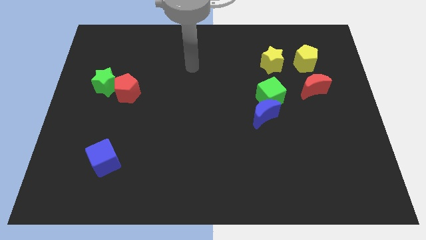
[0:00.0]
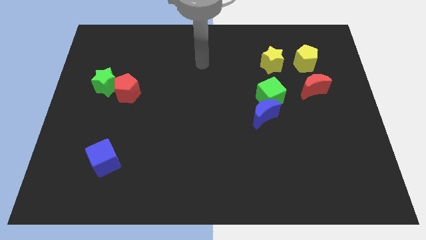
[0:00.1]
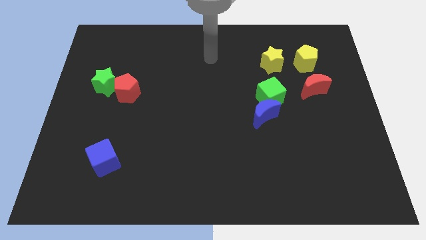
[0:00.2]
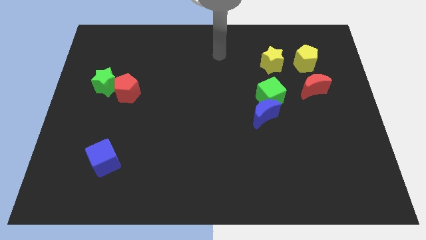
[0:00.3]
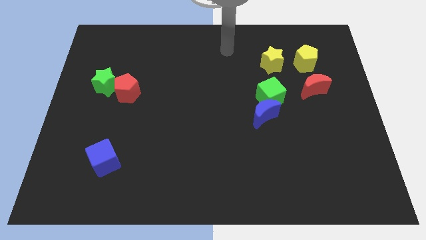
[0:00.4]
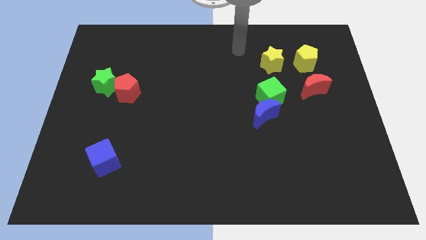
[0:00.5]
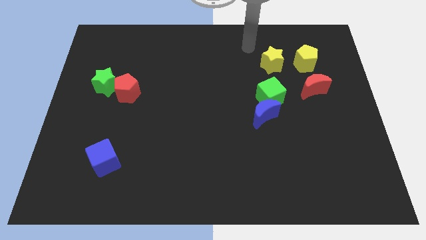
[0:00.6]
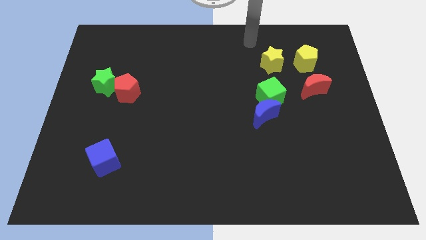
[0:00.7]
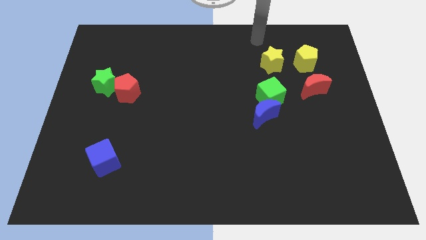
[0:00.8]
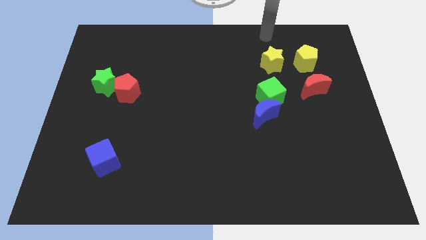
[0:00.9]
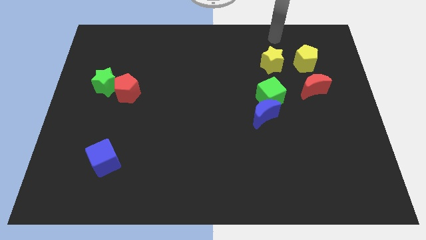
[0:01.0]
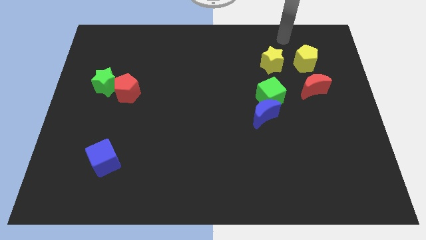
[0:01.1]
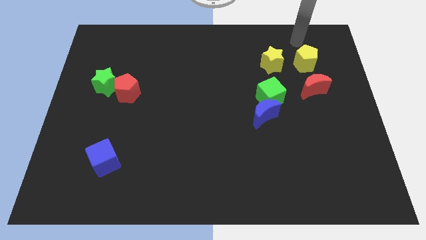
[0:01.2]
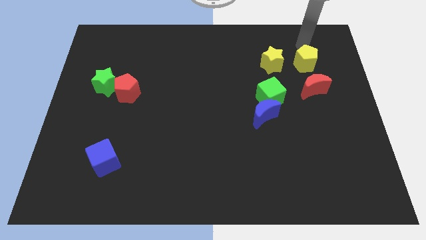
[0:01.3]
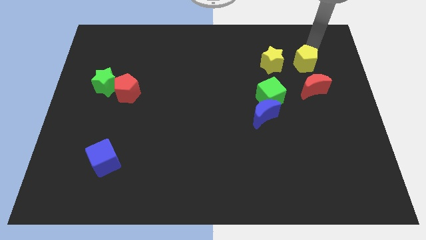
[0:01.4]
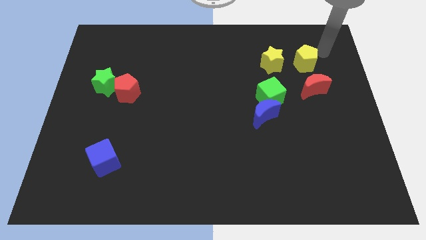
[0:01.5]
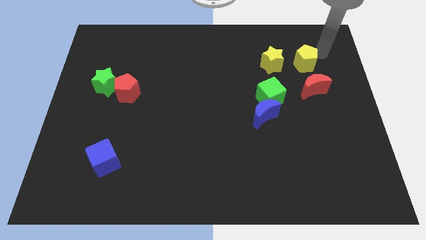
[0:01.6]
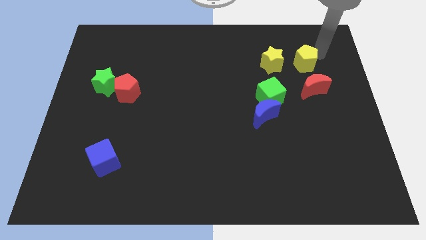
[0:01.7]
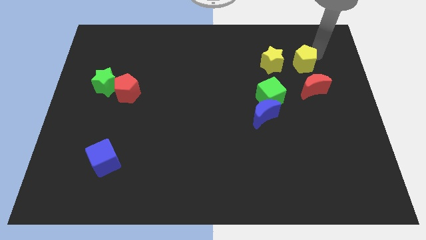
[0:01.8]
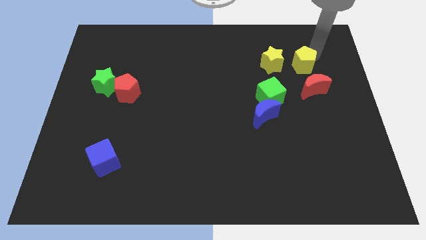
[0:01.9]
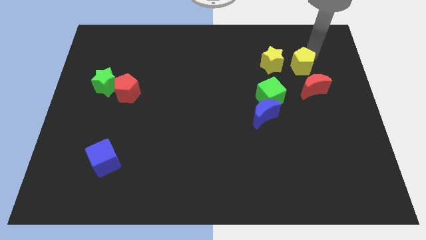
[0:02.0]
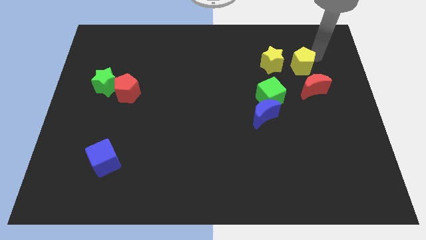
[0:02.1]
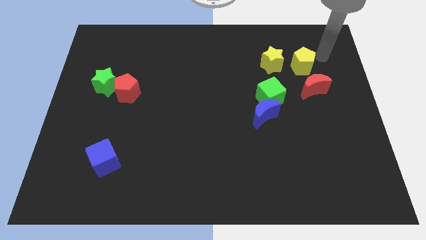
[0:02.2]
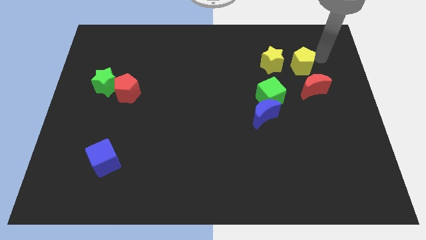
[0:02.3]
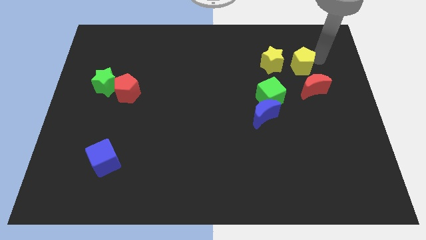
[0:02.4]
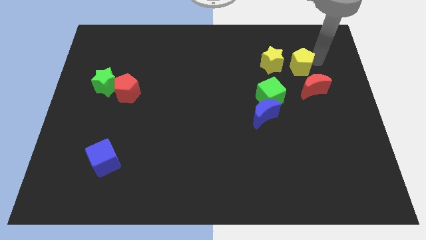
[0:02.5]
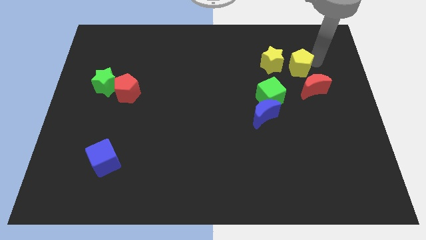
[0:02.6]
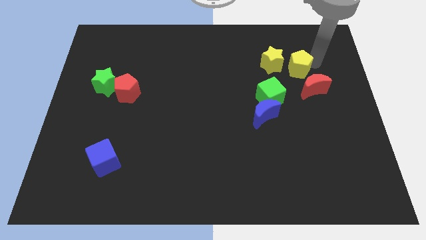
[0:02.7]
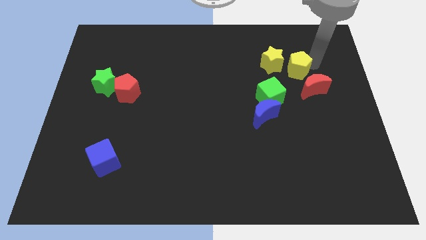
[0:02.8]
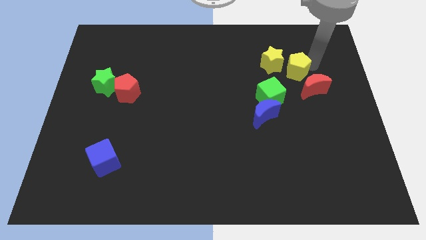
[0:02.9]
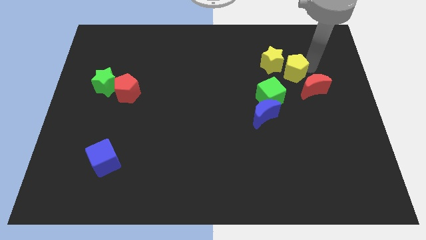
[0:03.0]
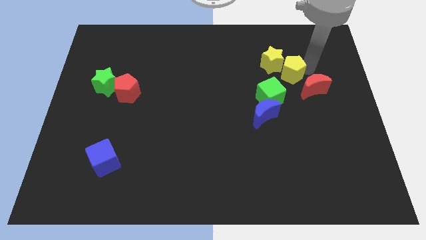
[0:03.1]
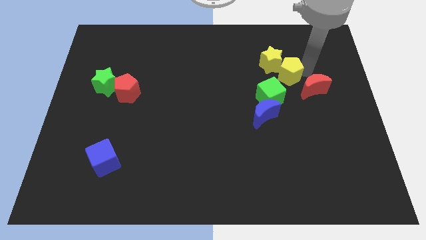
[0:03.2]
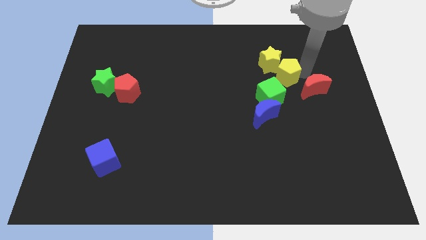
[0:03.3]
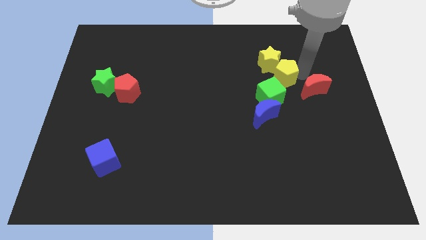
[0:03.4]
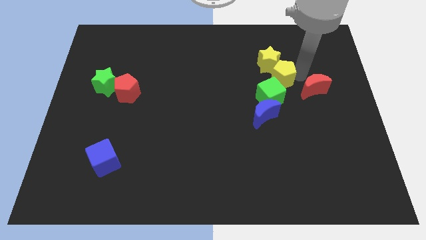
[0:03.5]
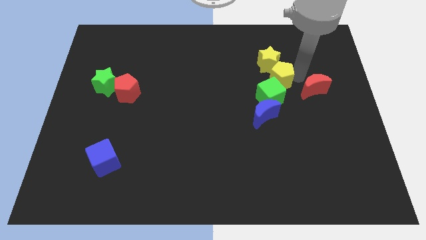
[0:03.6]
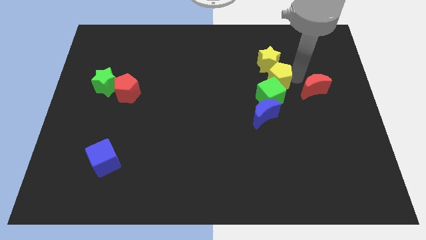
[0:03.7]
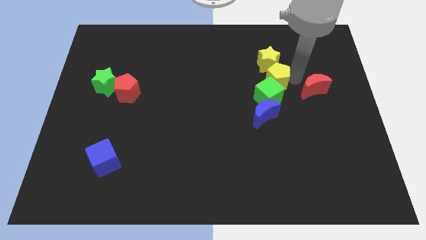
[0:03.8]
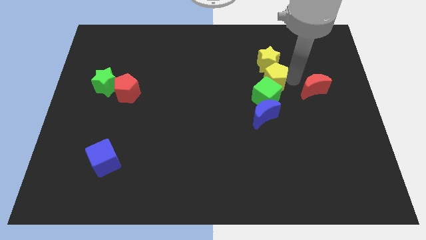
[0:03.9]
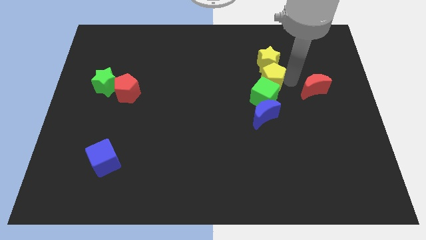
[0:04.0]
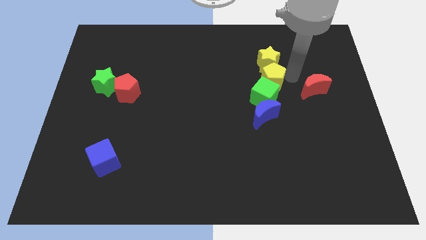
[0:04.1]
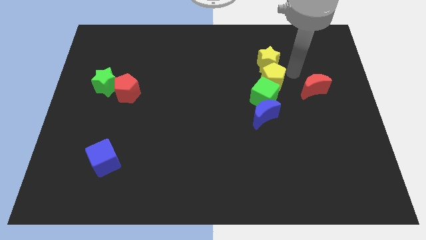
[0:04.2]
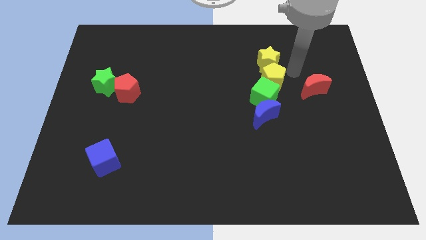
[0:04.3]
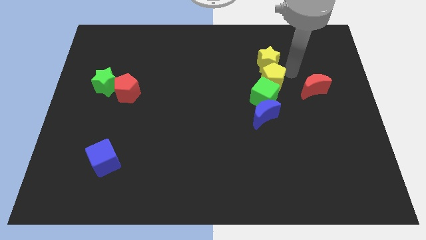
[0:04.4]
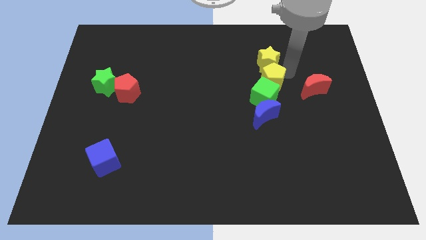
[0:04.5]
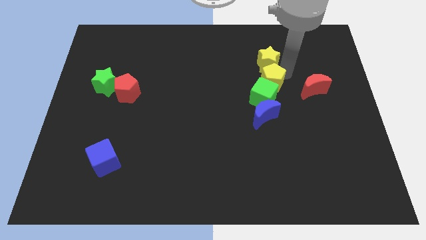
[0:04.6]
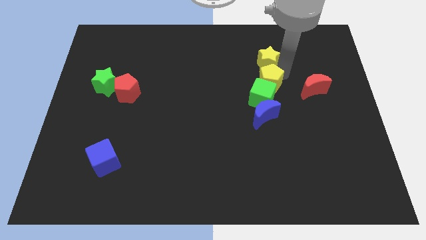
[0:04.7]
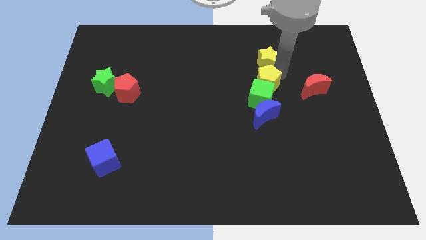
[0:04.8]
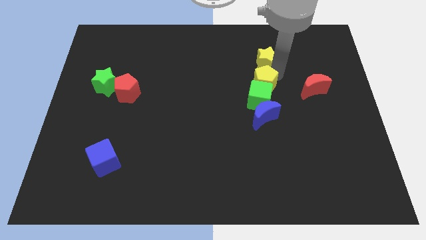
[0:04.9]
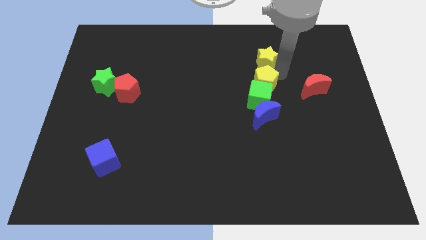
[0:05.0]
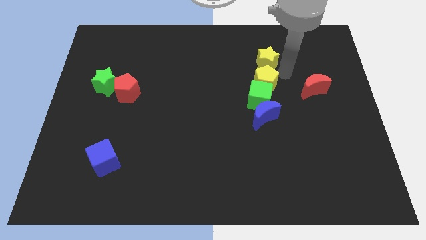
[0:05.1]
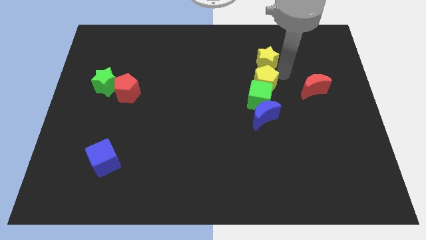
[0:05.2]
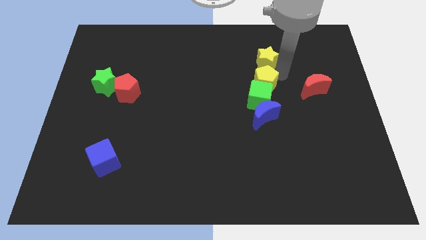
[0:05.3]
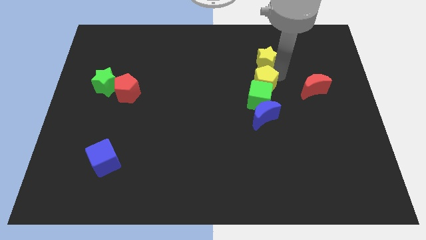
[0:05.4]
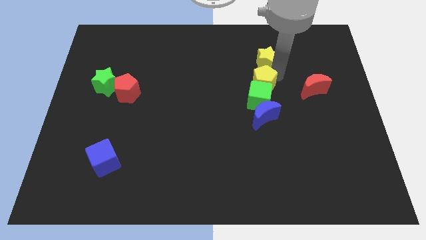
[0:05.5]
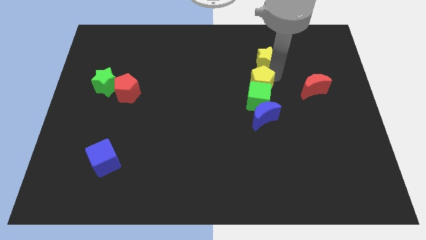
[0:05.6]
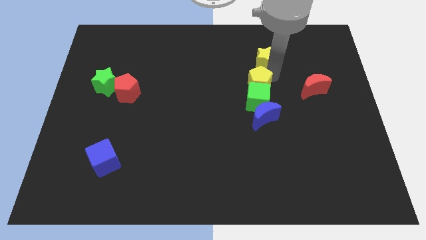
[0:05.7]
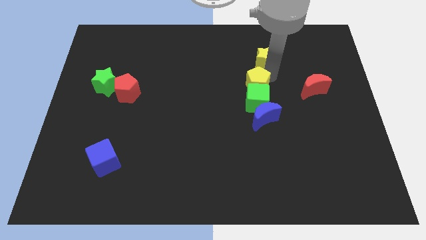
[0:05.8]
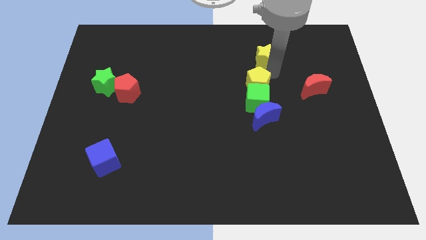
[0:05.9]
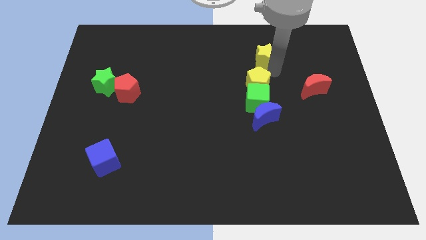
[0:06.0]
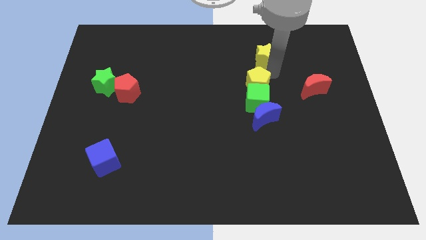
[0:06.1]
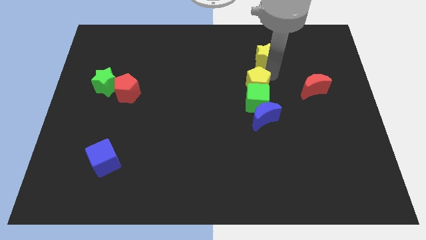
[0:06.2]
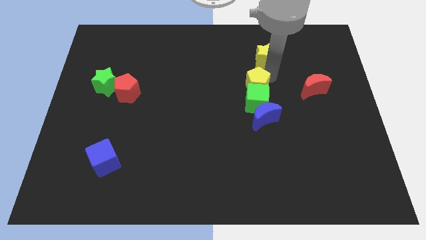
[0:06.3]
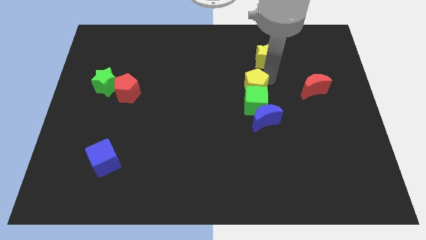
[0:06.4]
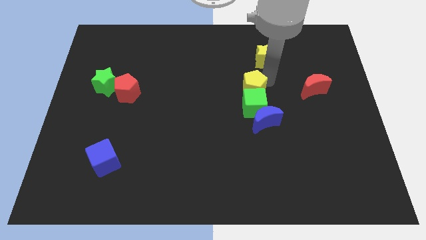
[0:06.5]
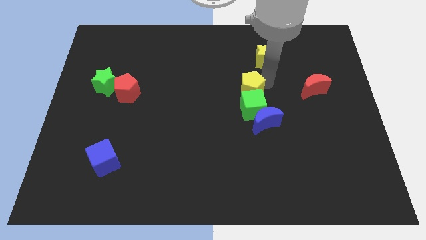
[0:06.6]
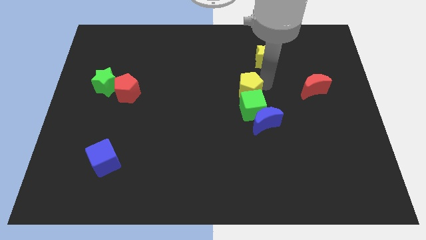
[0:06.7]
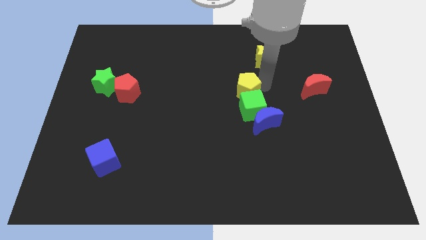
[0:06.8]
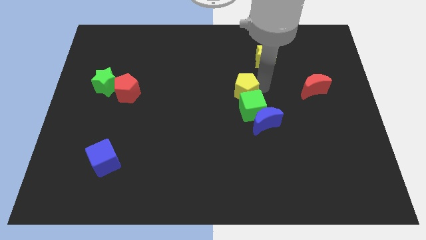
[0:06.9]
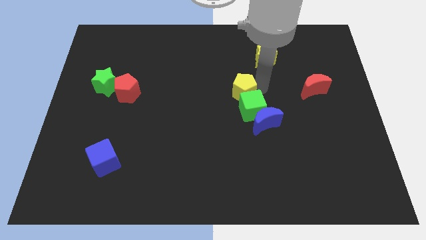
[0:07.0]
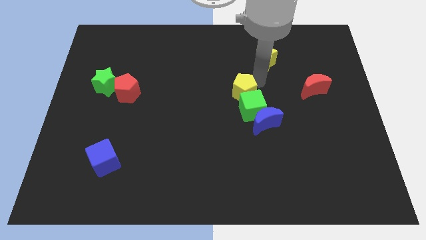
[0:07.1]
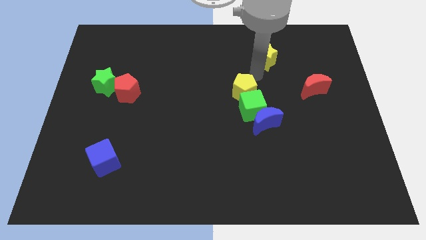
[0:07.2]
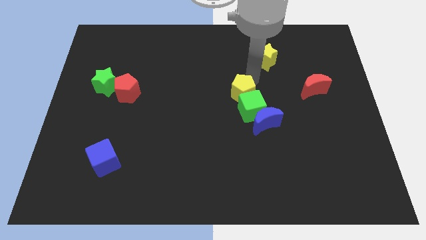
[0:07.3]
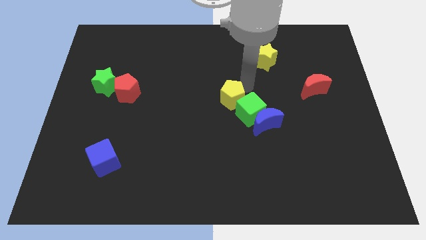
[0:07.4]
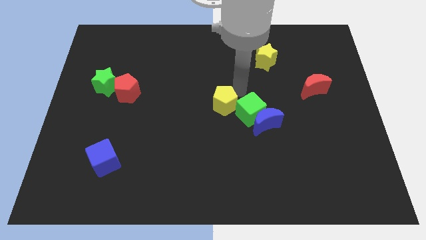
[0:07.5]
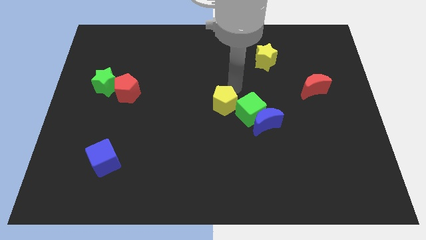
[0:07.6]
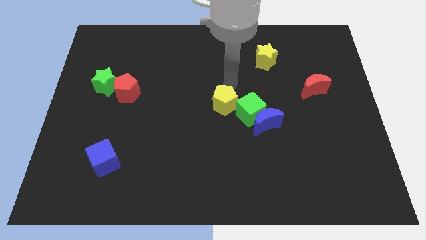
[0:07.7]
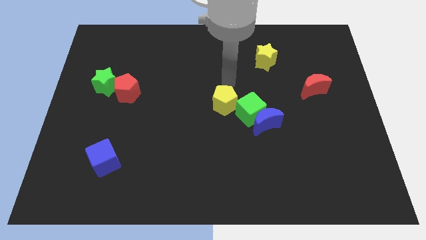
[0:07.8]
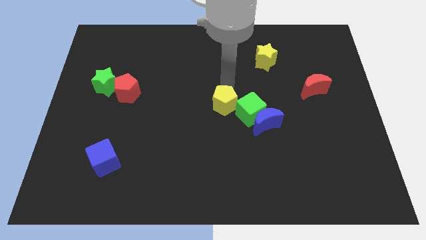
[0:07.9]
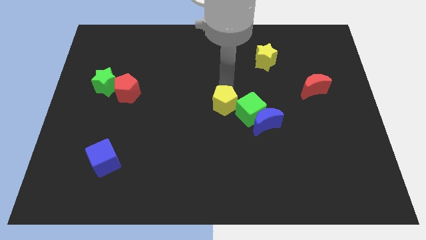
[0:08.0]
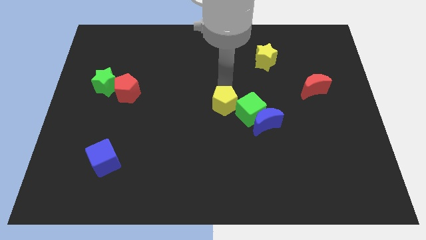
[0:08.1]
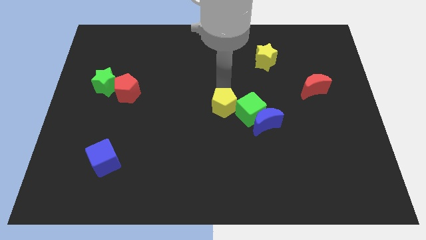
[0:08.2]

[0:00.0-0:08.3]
slide the yellow pentagon left of the blue moon

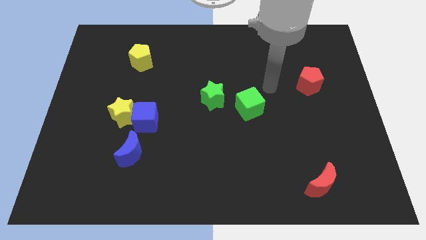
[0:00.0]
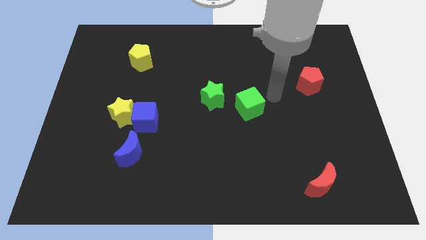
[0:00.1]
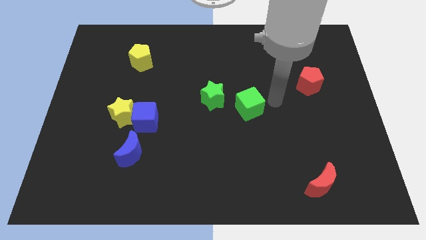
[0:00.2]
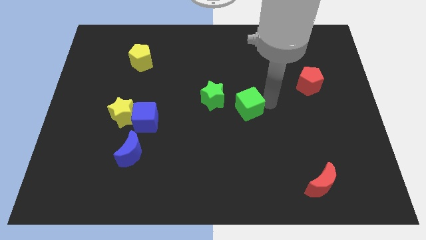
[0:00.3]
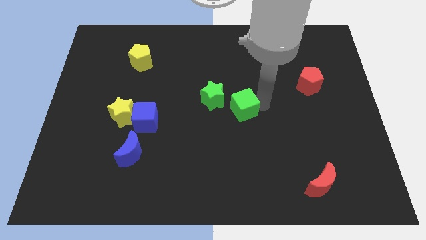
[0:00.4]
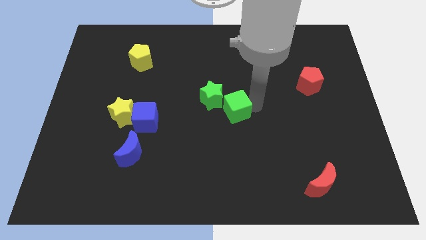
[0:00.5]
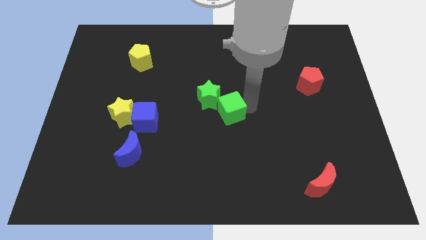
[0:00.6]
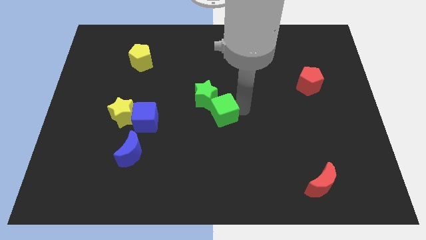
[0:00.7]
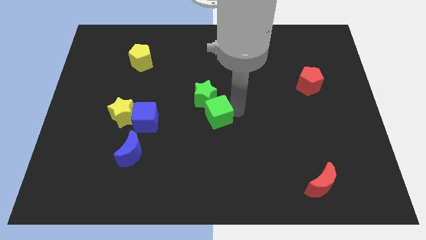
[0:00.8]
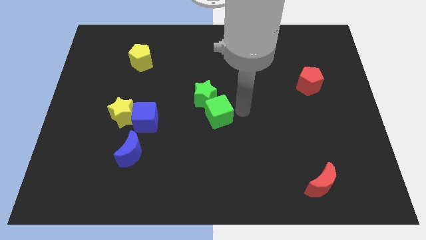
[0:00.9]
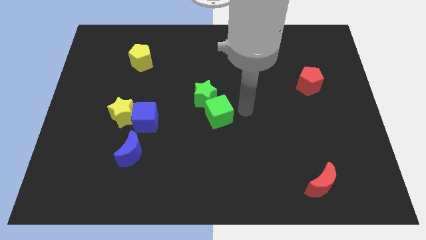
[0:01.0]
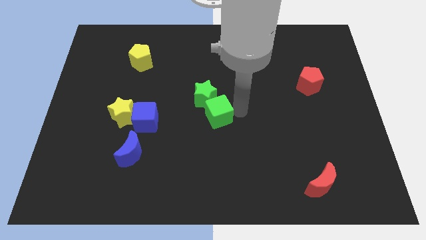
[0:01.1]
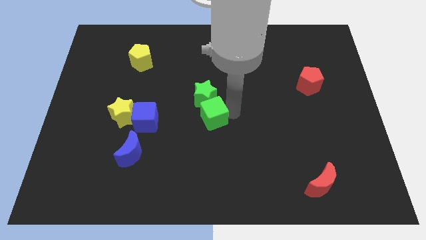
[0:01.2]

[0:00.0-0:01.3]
slide the green cube to the right of the blue cube
